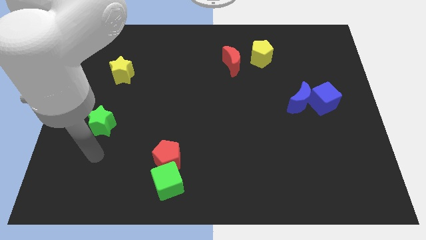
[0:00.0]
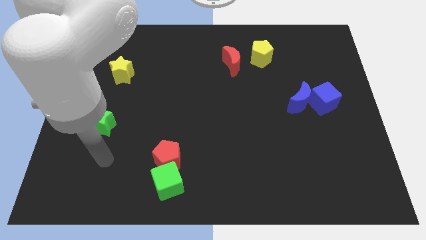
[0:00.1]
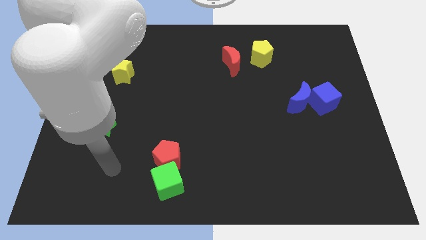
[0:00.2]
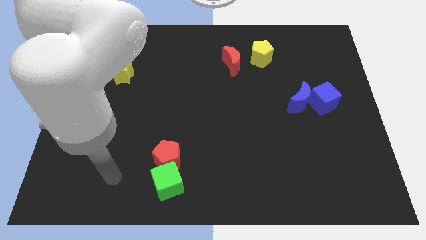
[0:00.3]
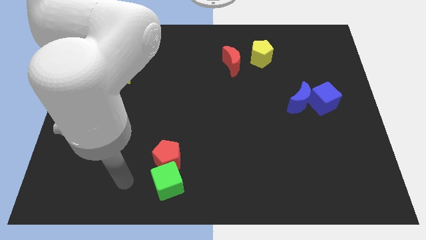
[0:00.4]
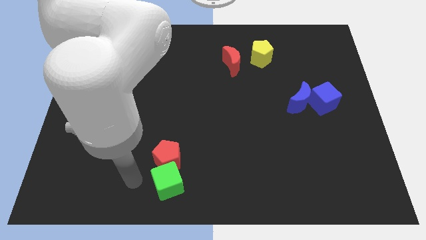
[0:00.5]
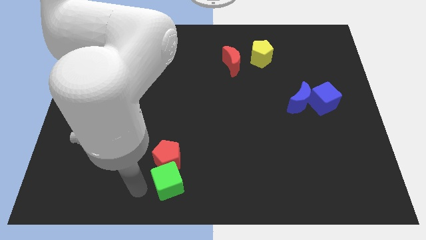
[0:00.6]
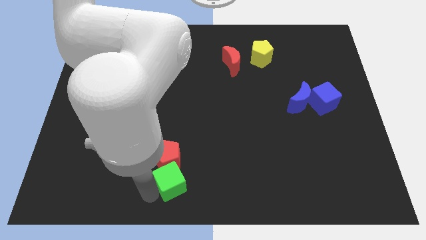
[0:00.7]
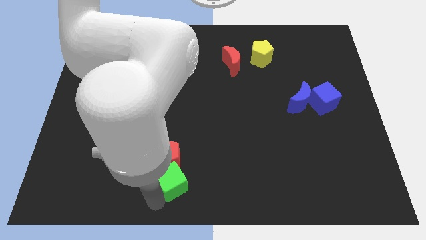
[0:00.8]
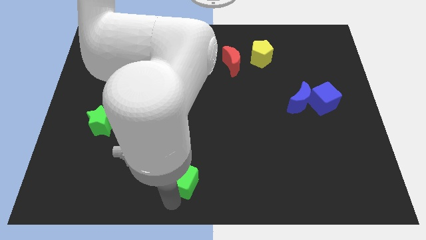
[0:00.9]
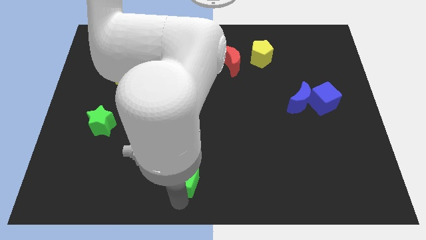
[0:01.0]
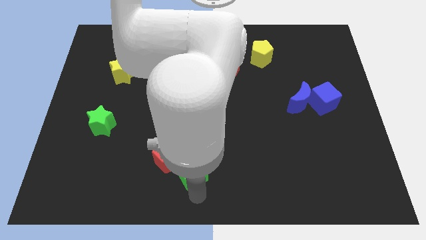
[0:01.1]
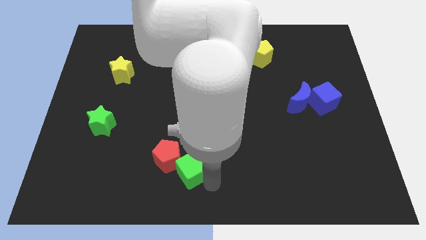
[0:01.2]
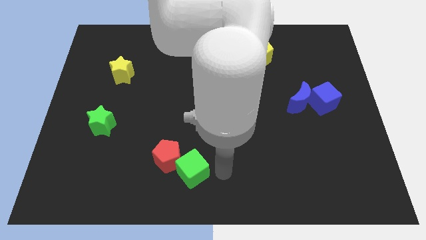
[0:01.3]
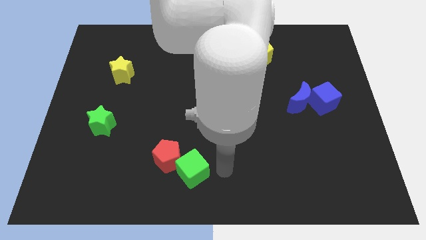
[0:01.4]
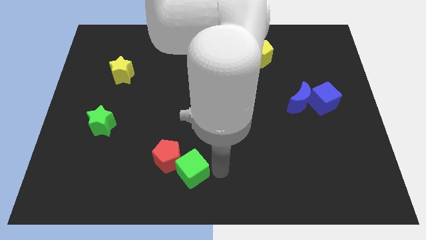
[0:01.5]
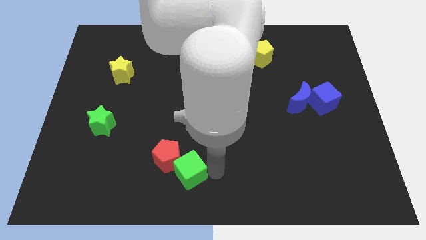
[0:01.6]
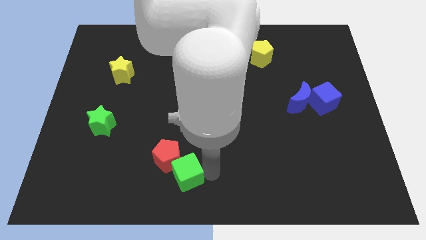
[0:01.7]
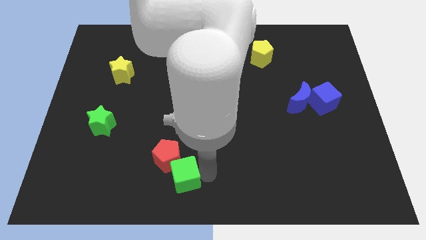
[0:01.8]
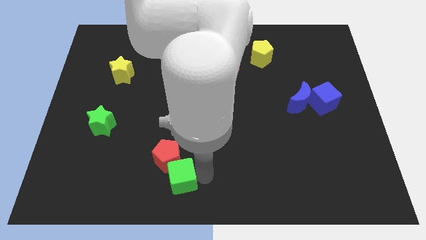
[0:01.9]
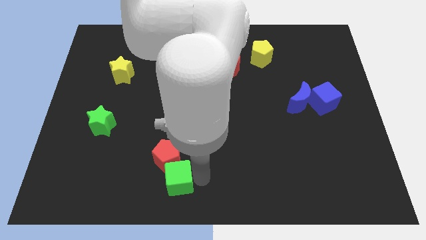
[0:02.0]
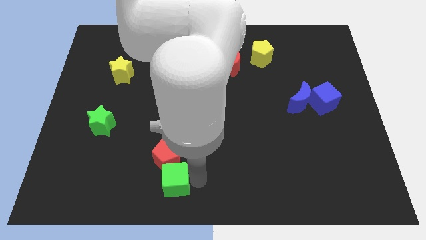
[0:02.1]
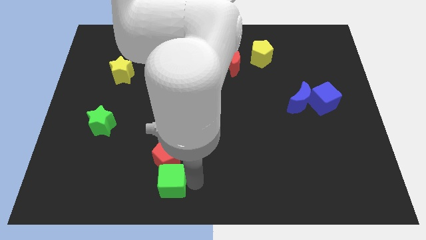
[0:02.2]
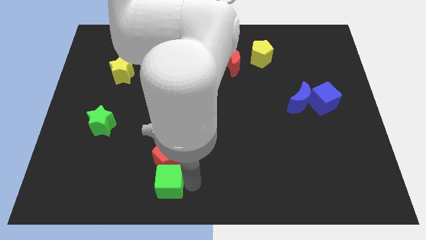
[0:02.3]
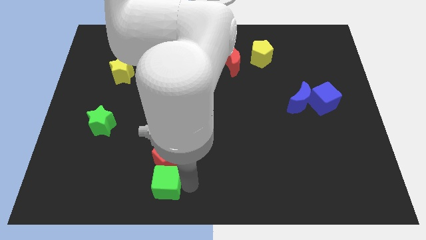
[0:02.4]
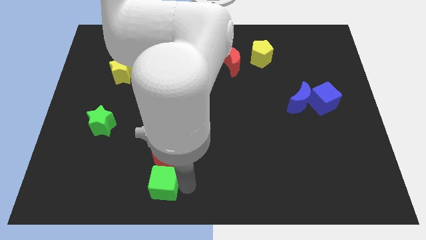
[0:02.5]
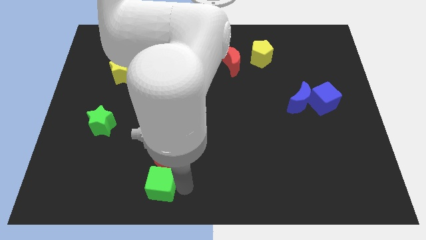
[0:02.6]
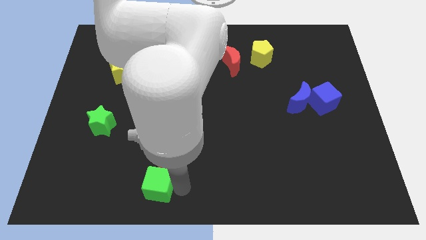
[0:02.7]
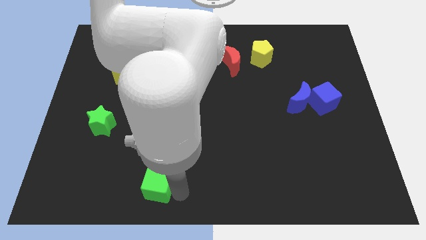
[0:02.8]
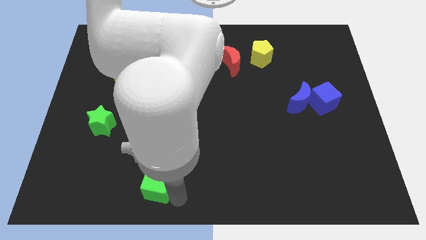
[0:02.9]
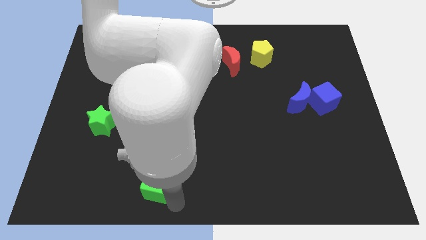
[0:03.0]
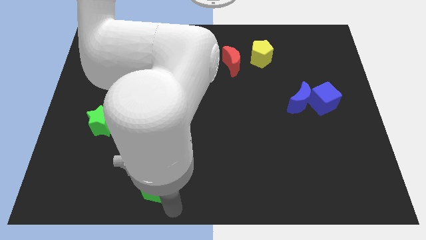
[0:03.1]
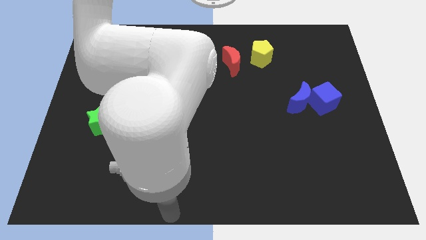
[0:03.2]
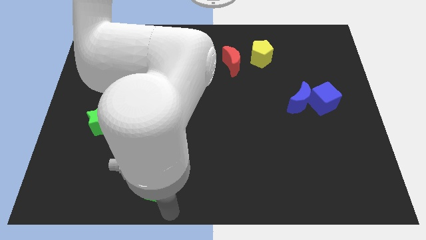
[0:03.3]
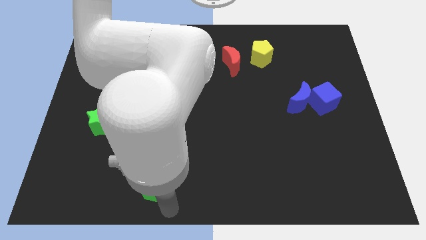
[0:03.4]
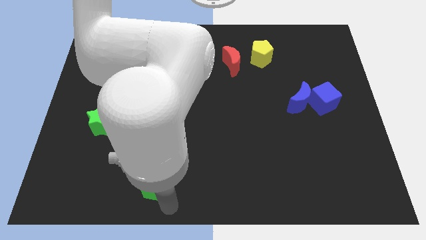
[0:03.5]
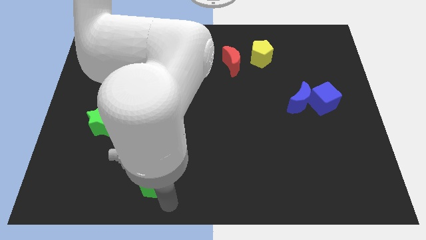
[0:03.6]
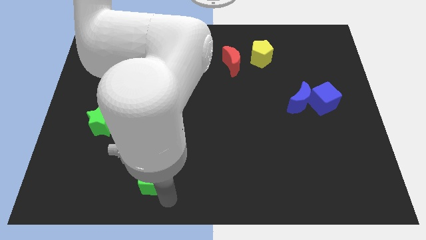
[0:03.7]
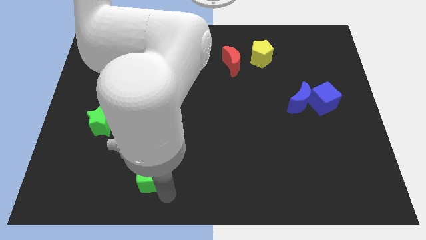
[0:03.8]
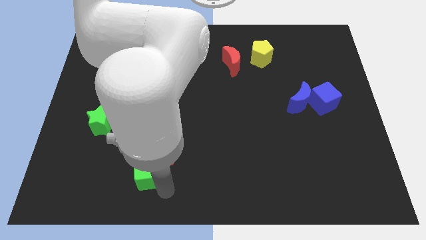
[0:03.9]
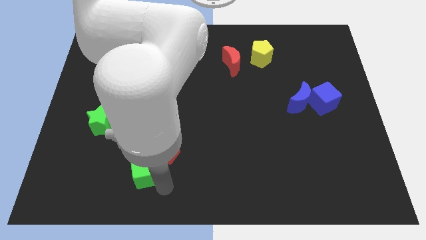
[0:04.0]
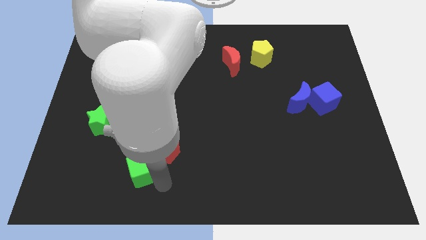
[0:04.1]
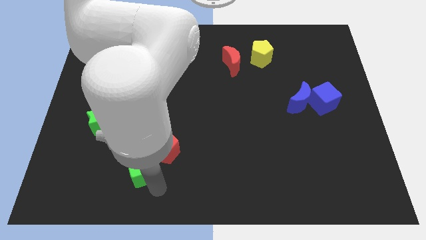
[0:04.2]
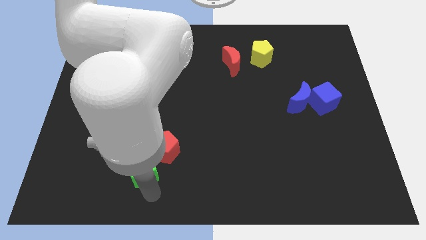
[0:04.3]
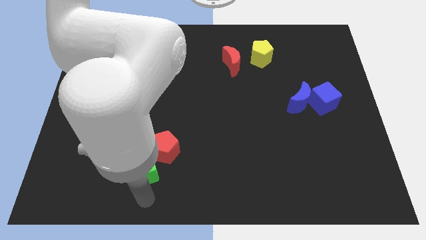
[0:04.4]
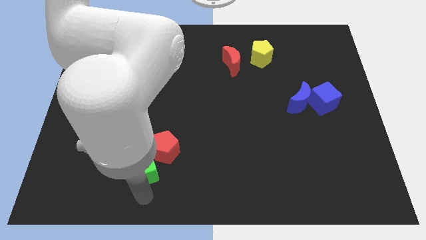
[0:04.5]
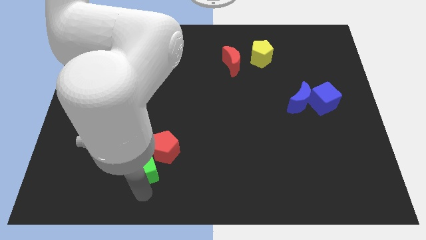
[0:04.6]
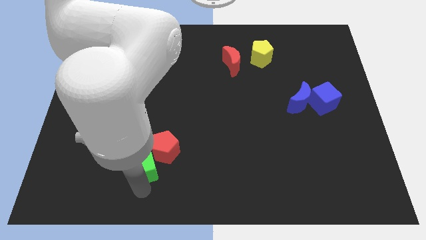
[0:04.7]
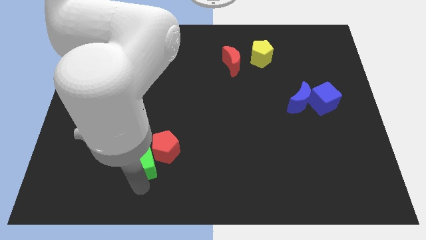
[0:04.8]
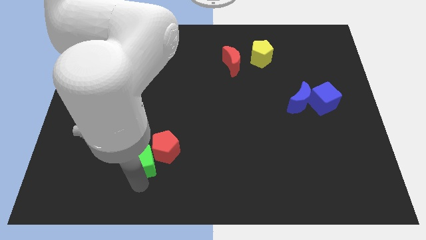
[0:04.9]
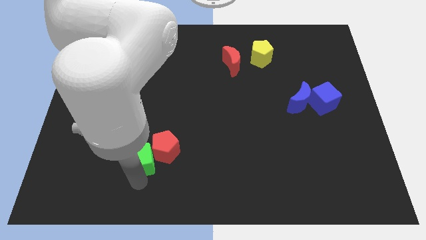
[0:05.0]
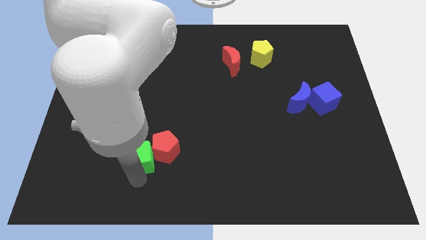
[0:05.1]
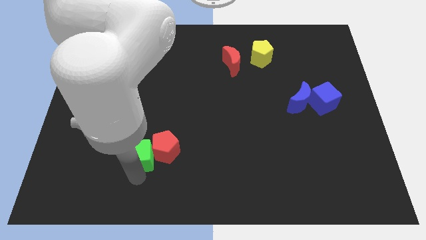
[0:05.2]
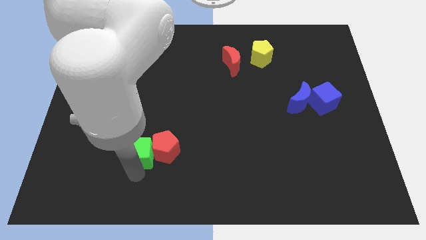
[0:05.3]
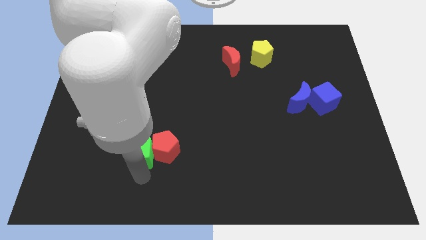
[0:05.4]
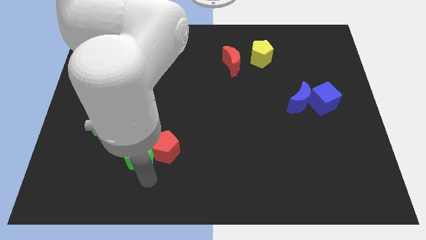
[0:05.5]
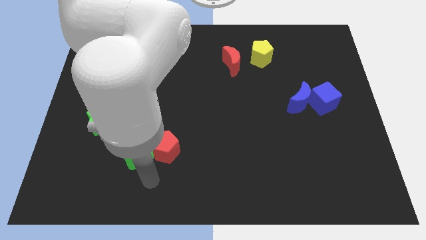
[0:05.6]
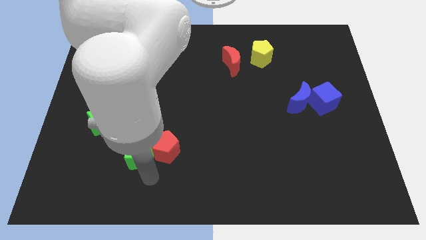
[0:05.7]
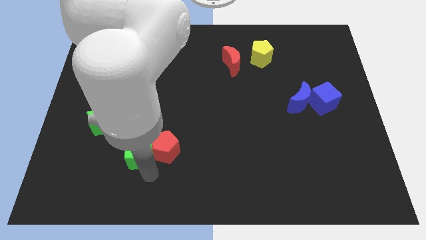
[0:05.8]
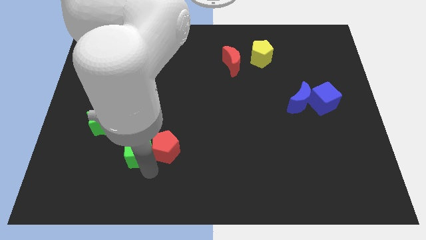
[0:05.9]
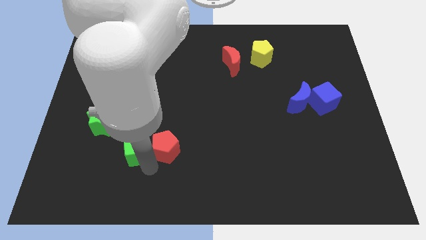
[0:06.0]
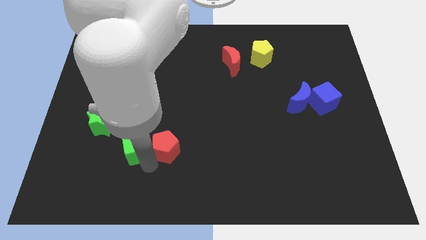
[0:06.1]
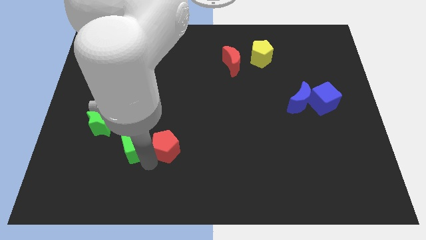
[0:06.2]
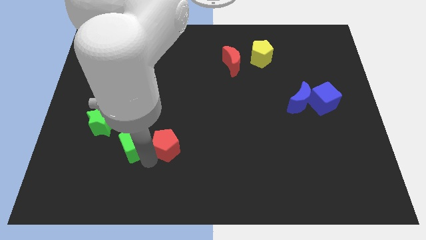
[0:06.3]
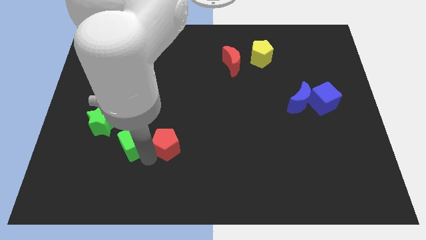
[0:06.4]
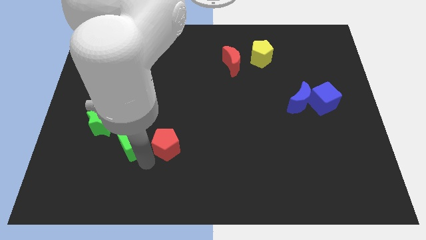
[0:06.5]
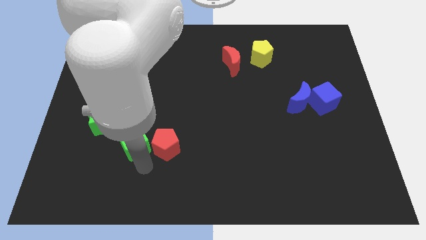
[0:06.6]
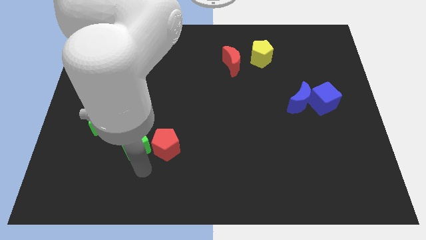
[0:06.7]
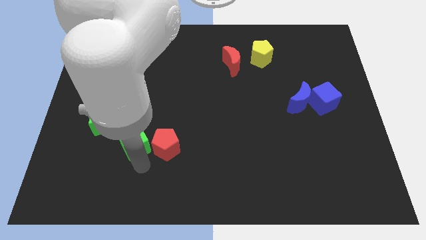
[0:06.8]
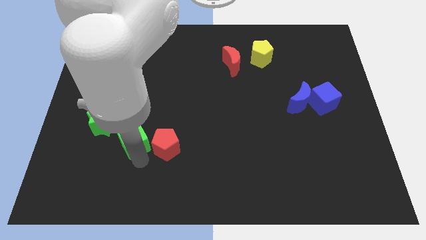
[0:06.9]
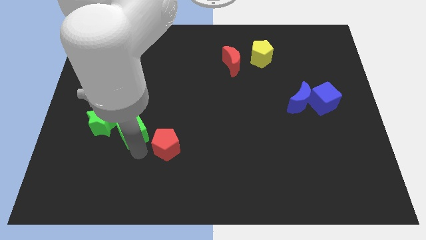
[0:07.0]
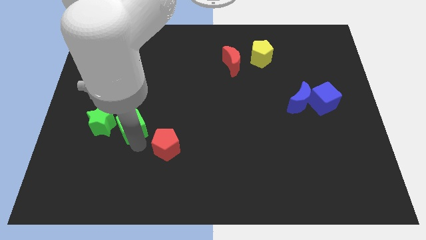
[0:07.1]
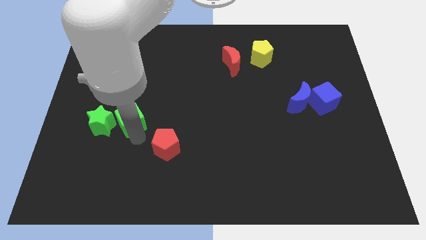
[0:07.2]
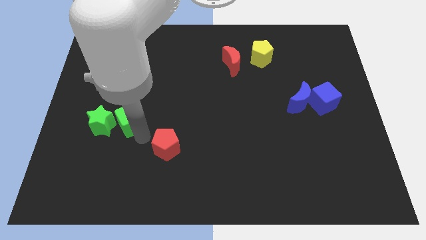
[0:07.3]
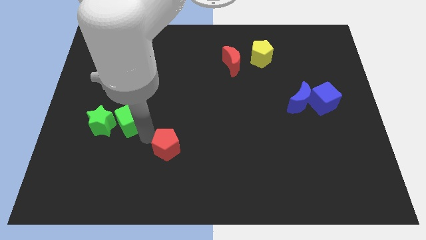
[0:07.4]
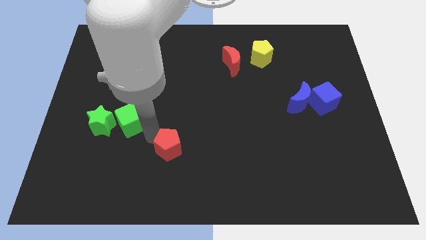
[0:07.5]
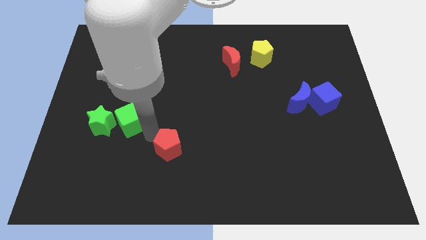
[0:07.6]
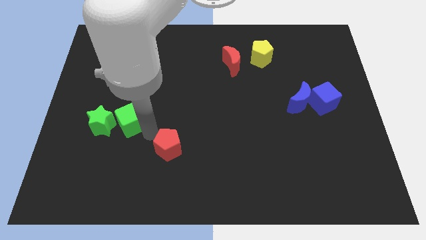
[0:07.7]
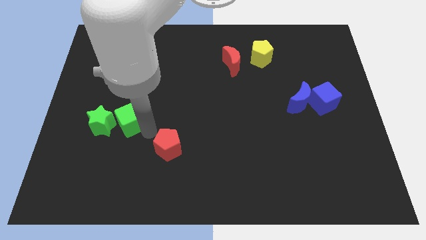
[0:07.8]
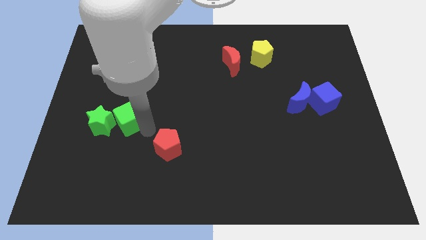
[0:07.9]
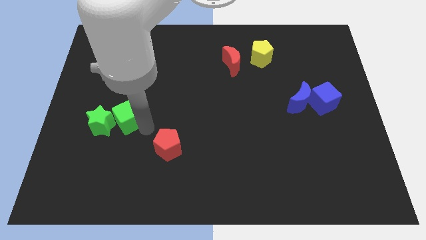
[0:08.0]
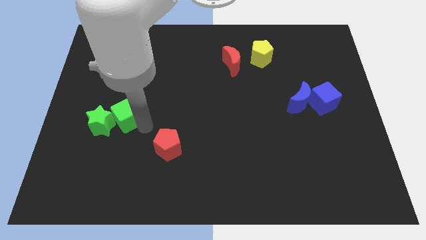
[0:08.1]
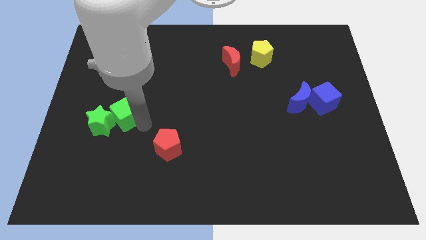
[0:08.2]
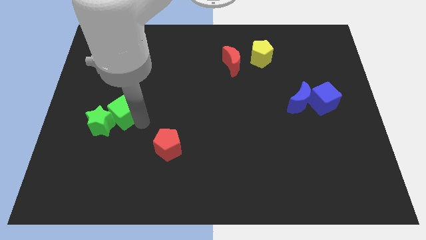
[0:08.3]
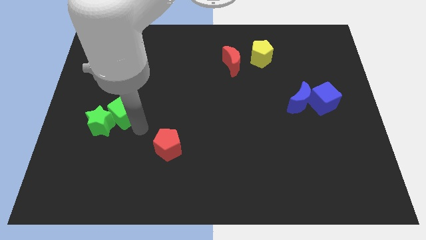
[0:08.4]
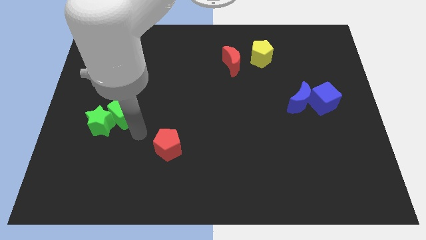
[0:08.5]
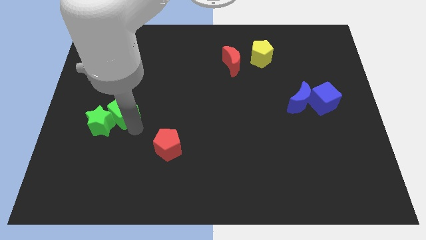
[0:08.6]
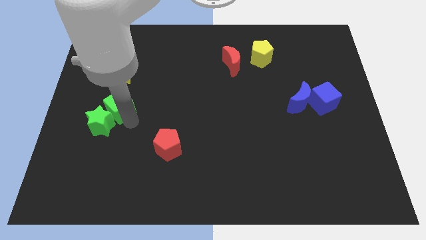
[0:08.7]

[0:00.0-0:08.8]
move the green cube above the green star
